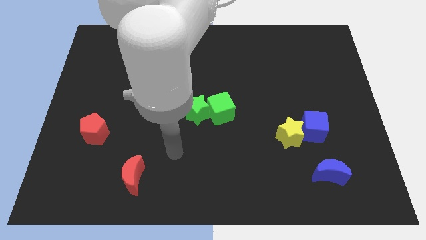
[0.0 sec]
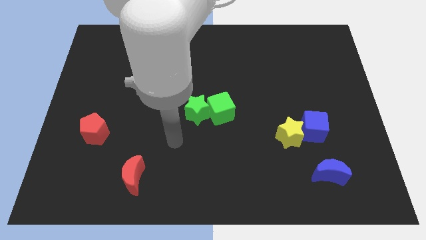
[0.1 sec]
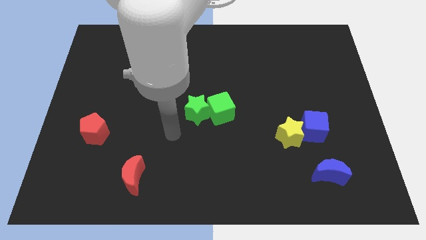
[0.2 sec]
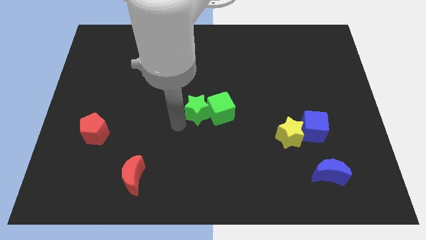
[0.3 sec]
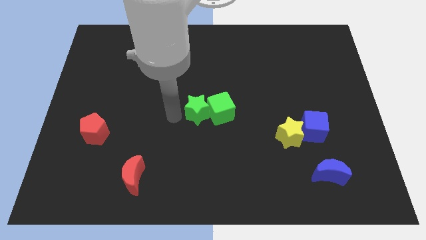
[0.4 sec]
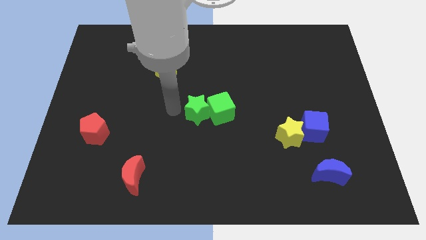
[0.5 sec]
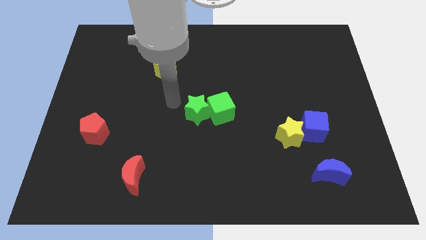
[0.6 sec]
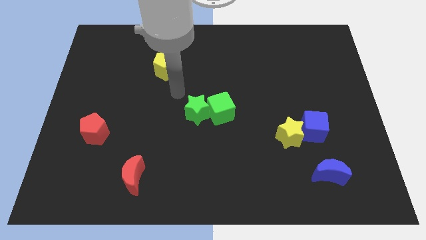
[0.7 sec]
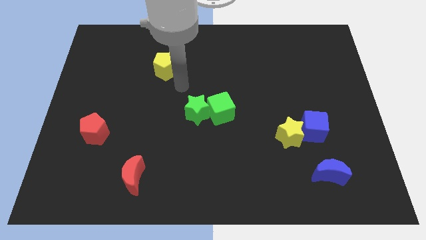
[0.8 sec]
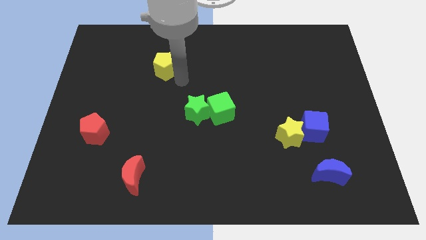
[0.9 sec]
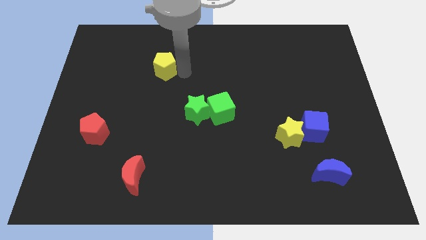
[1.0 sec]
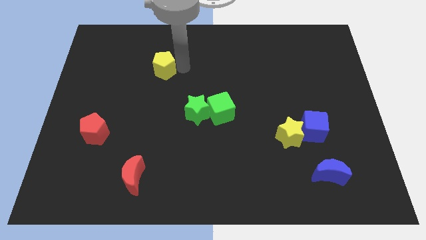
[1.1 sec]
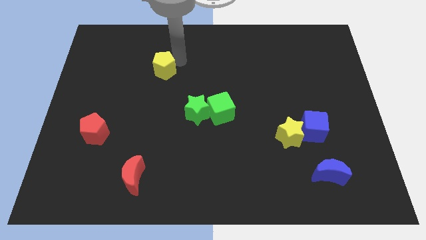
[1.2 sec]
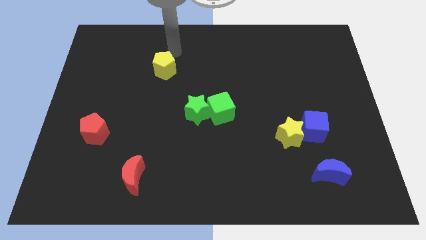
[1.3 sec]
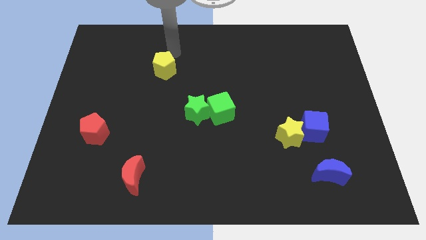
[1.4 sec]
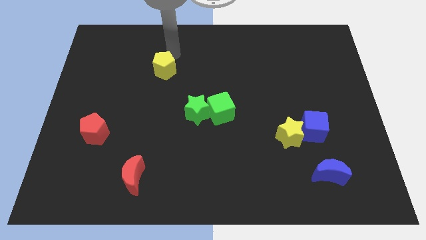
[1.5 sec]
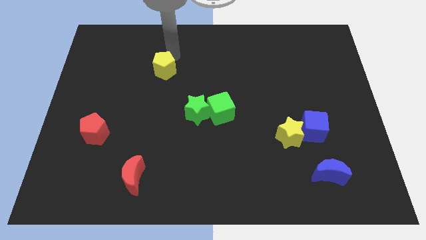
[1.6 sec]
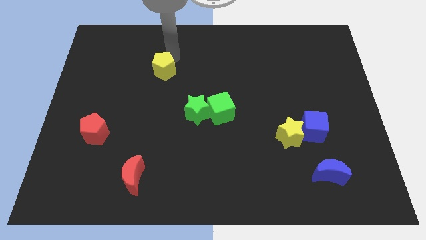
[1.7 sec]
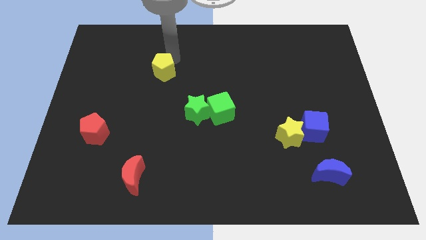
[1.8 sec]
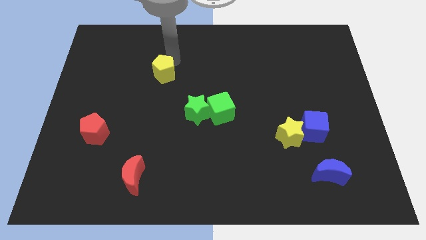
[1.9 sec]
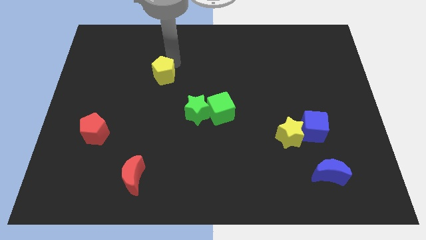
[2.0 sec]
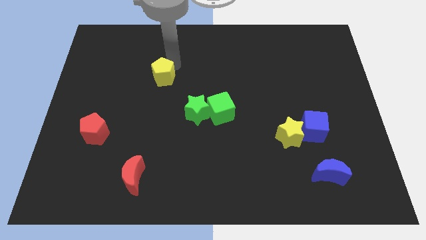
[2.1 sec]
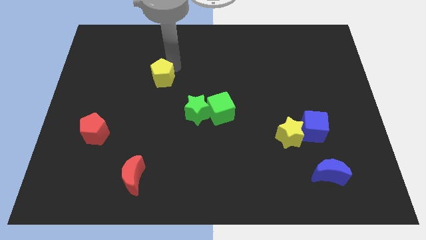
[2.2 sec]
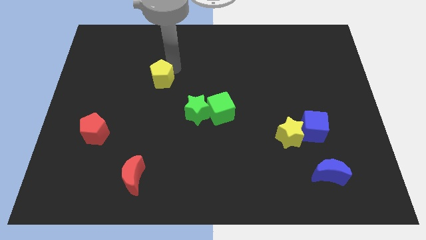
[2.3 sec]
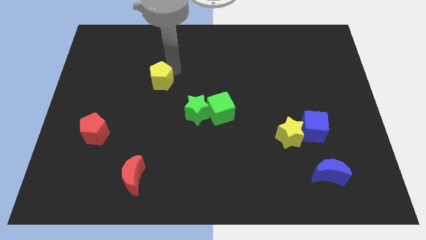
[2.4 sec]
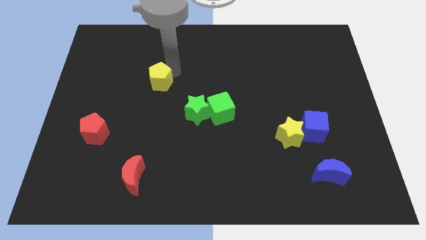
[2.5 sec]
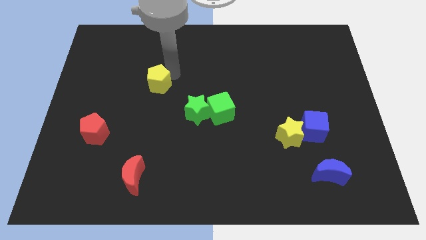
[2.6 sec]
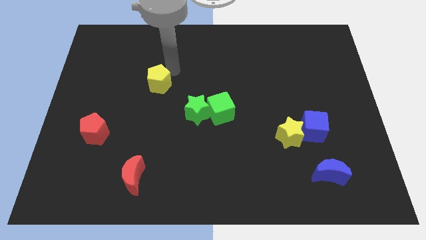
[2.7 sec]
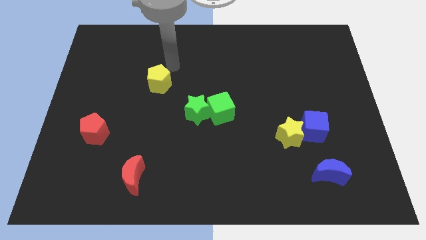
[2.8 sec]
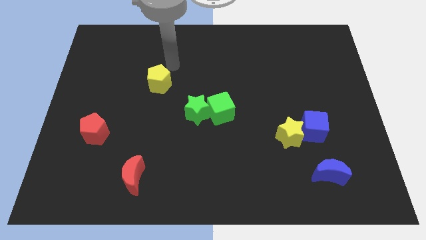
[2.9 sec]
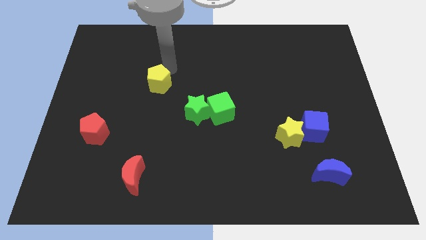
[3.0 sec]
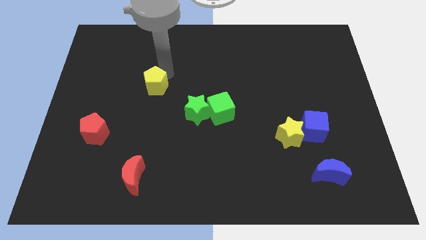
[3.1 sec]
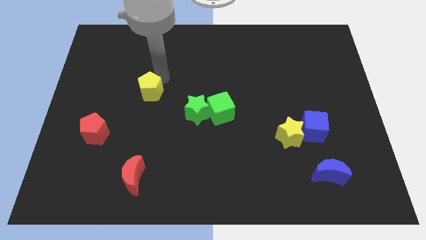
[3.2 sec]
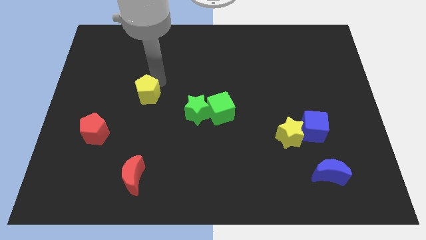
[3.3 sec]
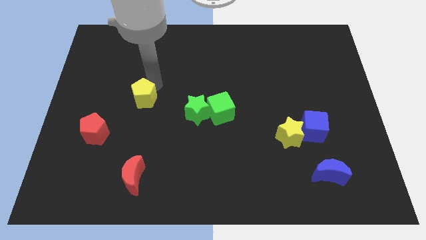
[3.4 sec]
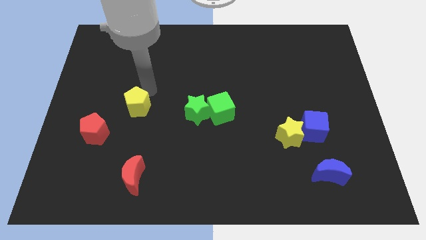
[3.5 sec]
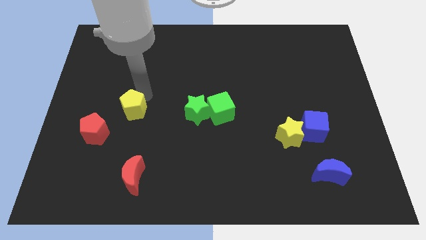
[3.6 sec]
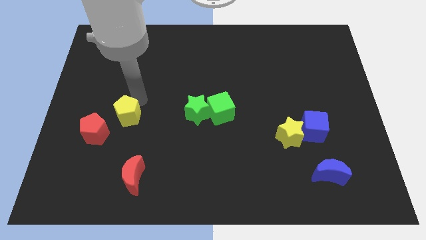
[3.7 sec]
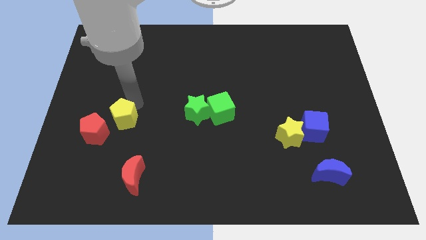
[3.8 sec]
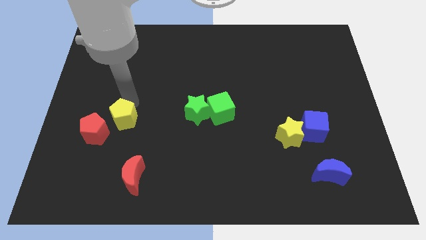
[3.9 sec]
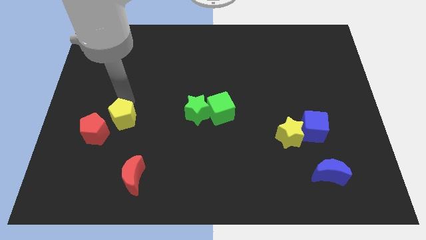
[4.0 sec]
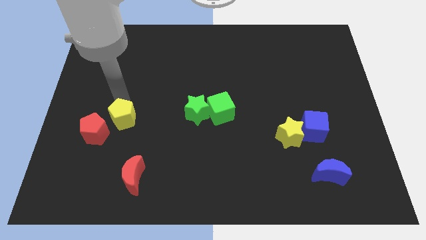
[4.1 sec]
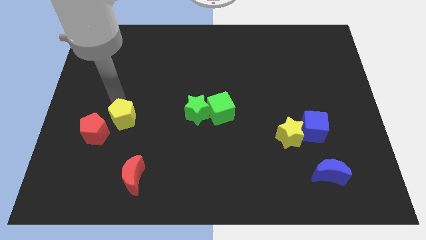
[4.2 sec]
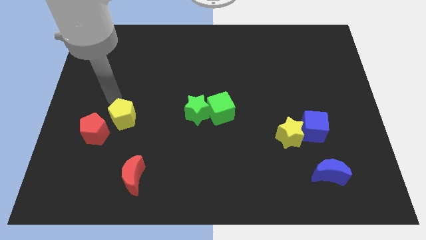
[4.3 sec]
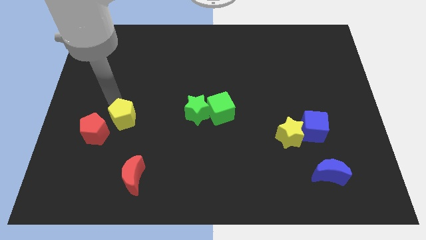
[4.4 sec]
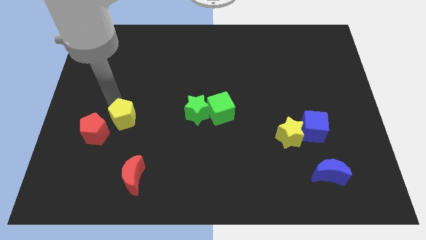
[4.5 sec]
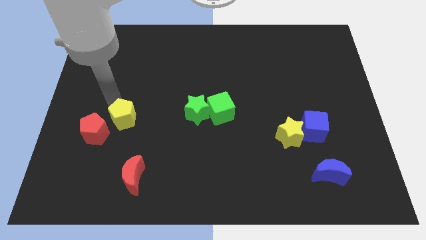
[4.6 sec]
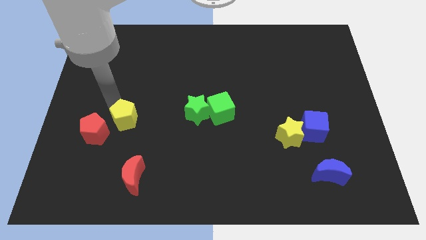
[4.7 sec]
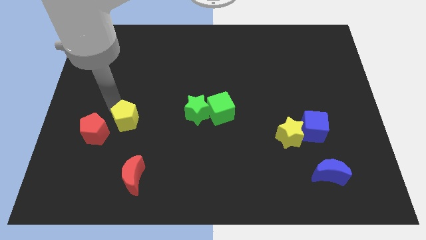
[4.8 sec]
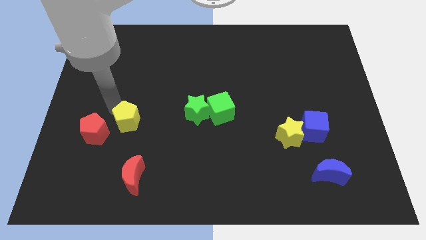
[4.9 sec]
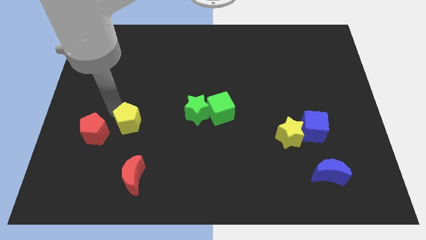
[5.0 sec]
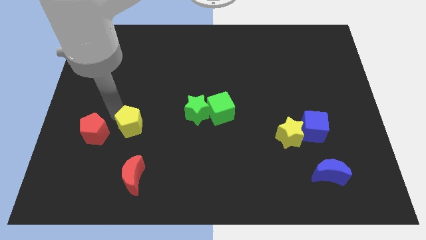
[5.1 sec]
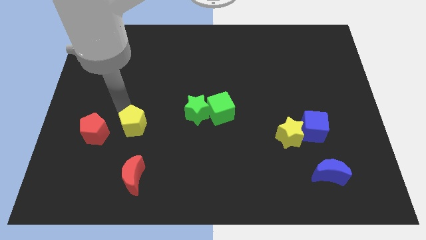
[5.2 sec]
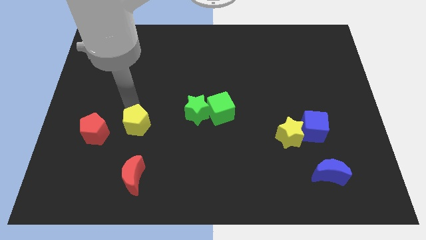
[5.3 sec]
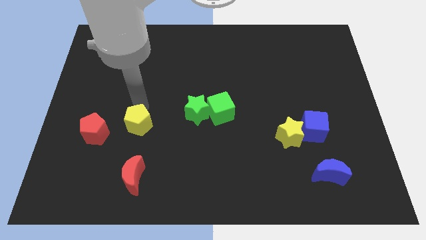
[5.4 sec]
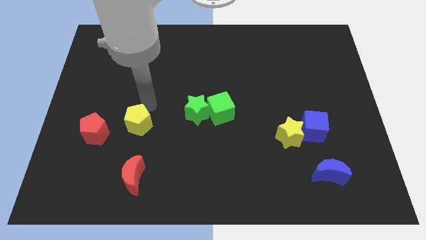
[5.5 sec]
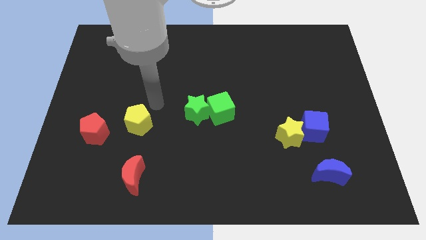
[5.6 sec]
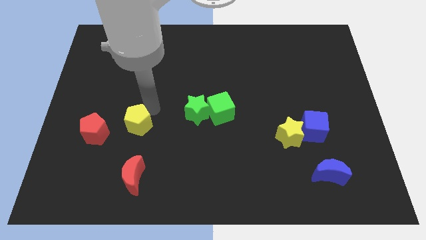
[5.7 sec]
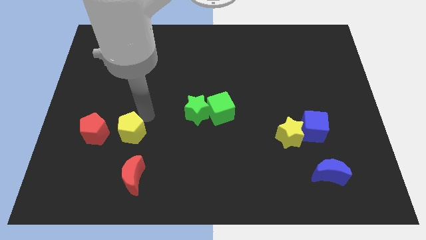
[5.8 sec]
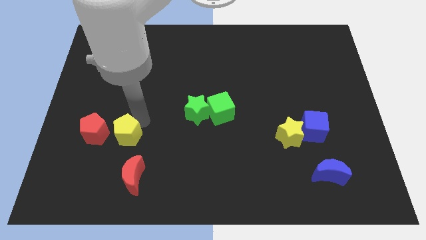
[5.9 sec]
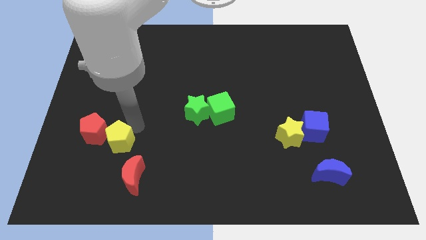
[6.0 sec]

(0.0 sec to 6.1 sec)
move the yellow pentagon to the bottom right of the red pentagon
